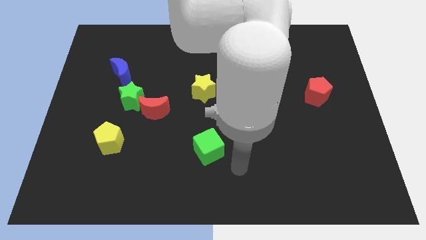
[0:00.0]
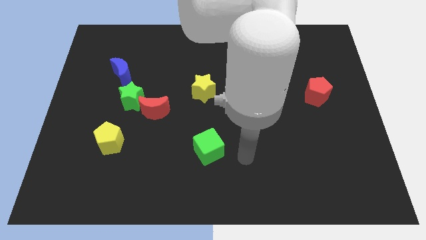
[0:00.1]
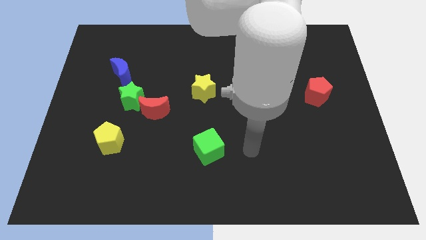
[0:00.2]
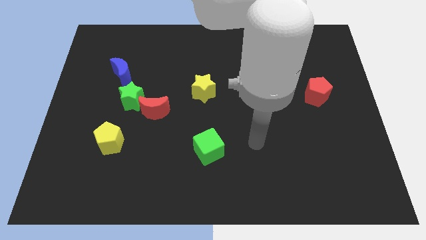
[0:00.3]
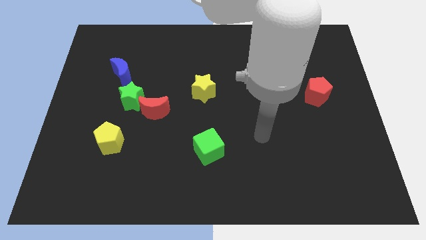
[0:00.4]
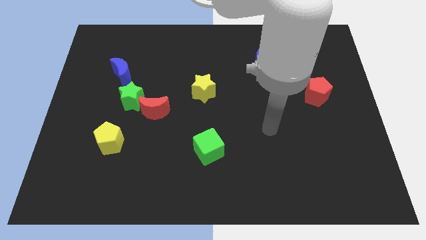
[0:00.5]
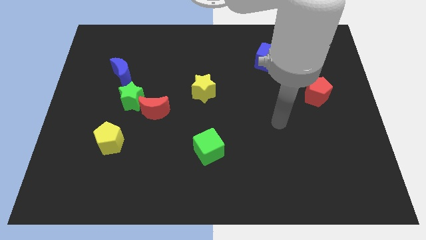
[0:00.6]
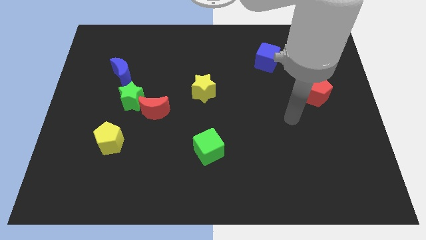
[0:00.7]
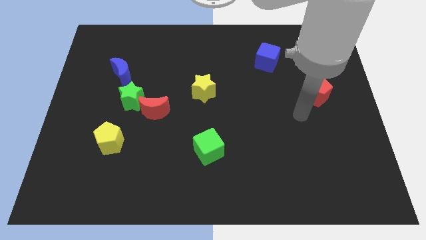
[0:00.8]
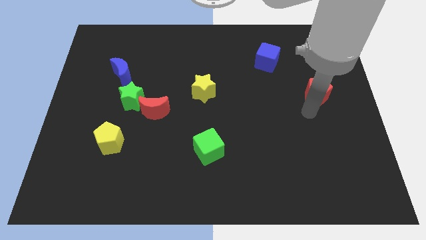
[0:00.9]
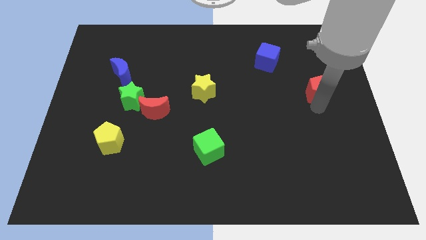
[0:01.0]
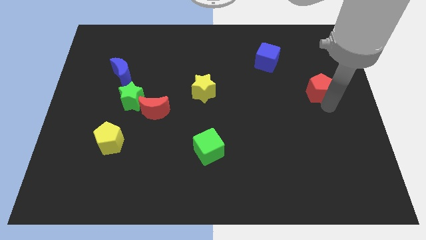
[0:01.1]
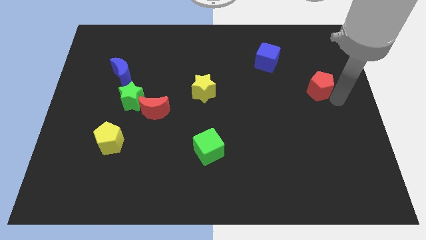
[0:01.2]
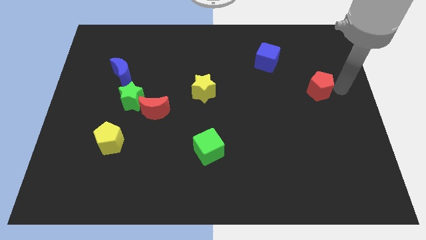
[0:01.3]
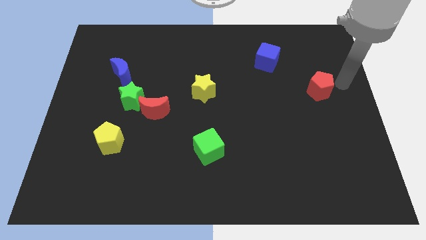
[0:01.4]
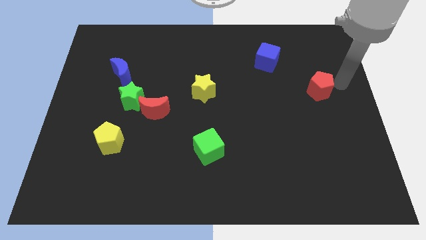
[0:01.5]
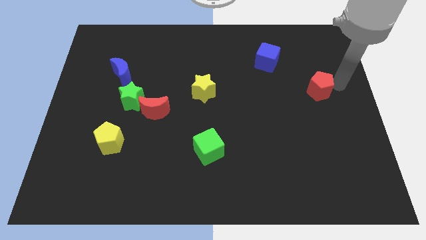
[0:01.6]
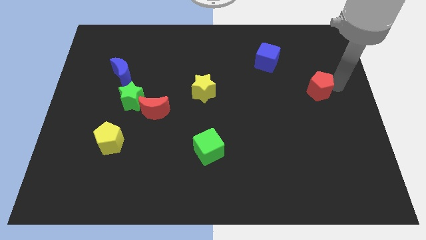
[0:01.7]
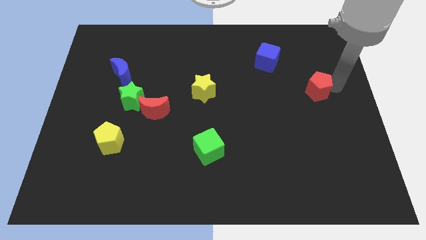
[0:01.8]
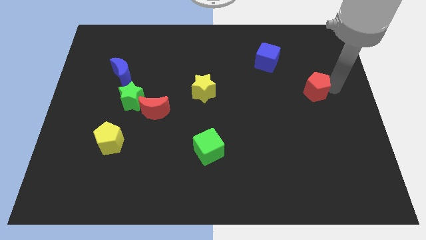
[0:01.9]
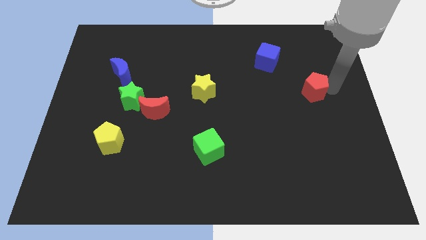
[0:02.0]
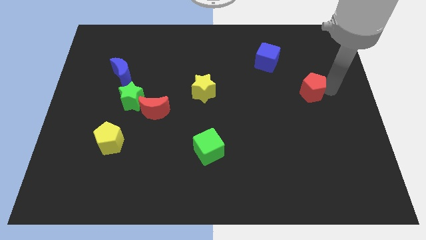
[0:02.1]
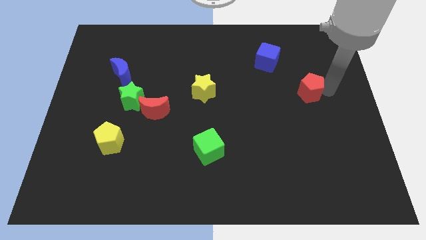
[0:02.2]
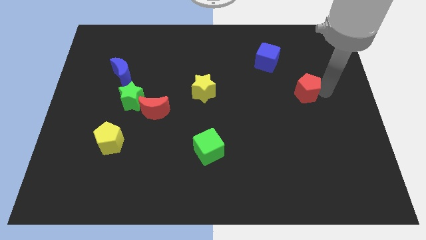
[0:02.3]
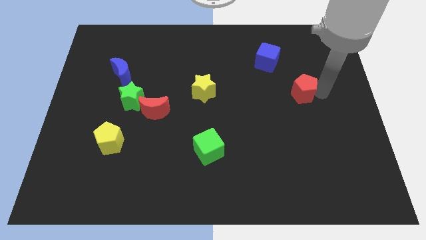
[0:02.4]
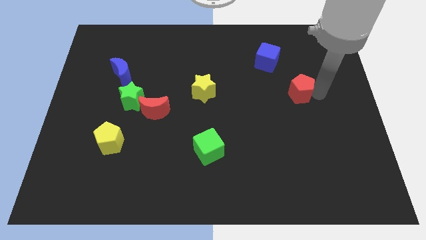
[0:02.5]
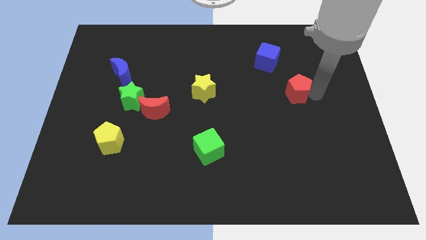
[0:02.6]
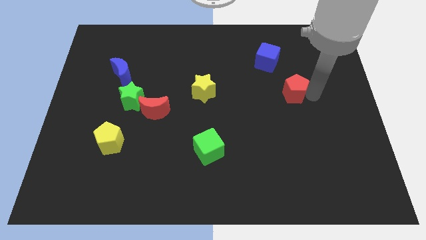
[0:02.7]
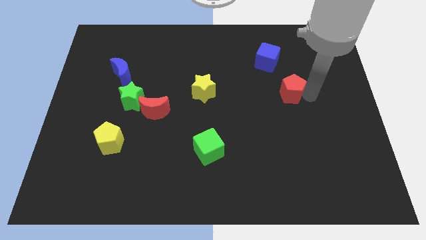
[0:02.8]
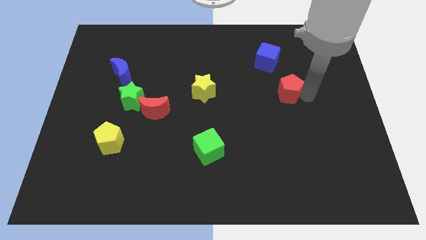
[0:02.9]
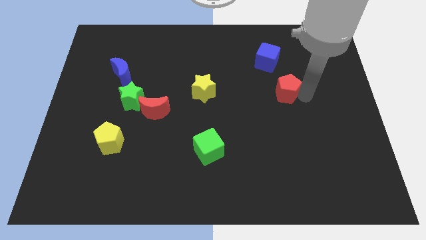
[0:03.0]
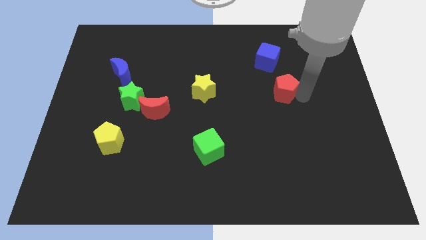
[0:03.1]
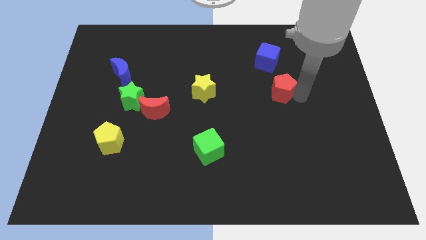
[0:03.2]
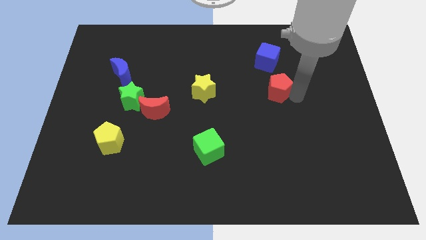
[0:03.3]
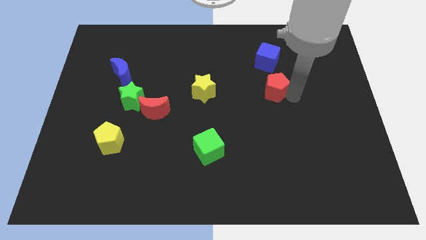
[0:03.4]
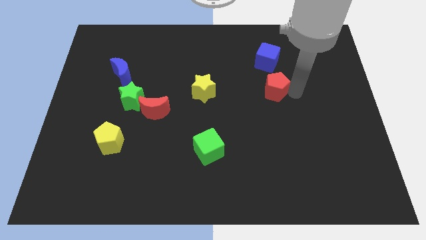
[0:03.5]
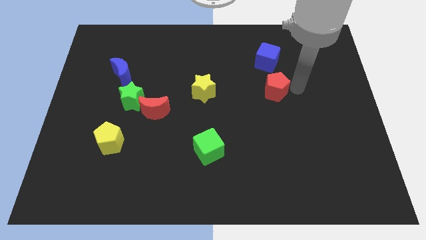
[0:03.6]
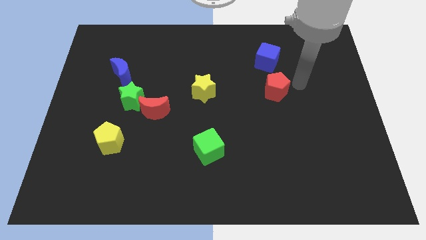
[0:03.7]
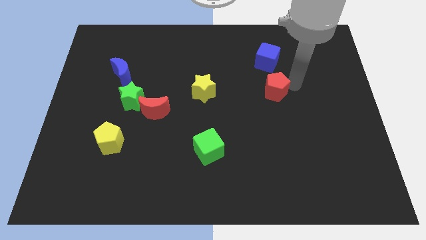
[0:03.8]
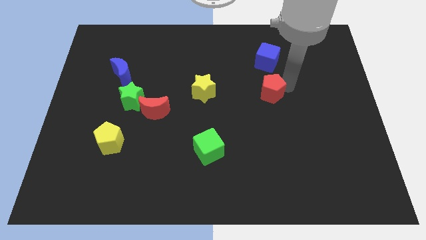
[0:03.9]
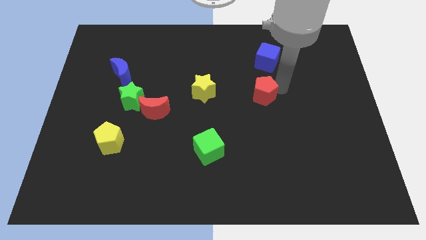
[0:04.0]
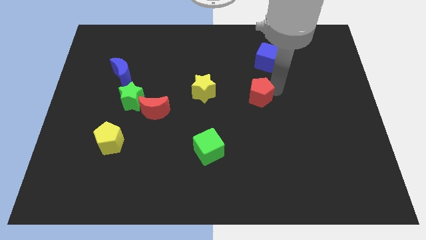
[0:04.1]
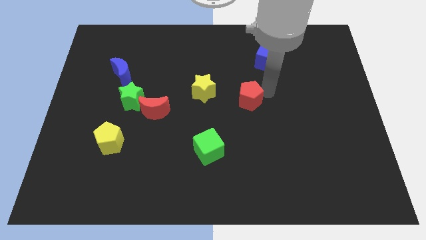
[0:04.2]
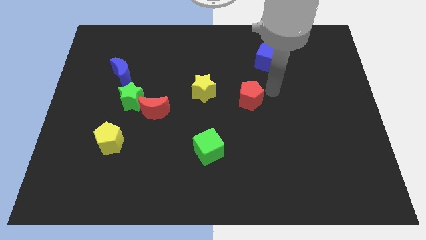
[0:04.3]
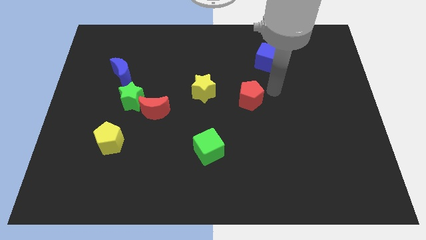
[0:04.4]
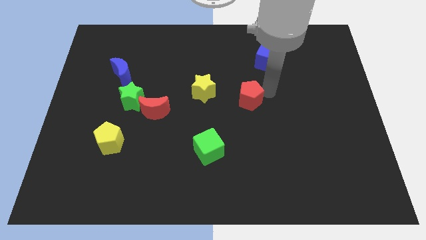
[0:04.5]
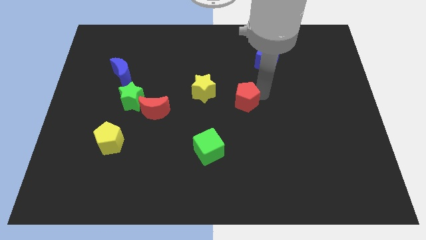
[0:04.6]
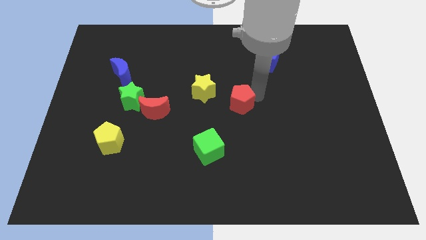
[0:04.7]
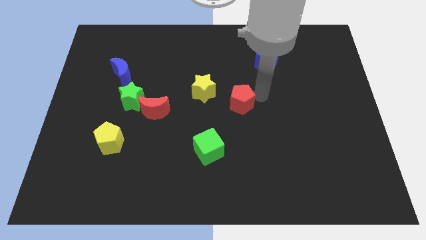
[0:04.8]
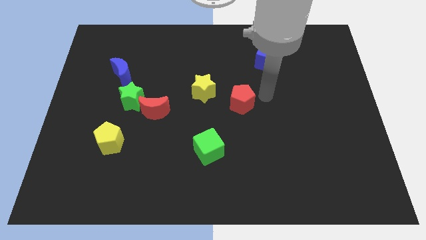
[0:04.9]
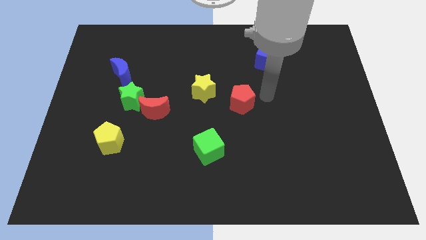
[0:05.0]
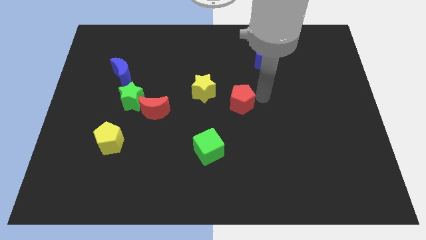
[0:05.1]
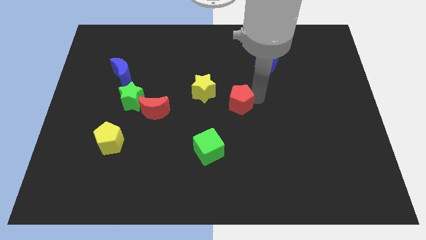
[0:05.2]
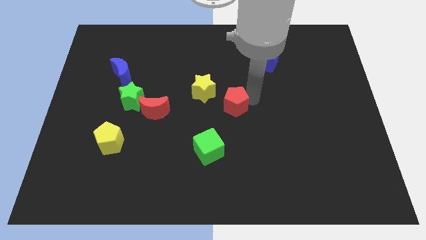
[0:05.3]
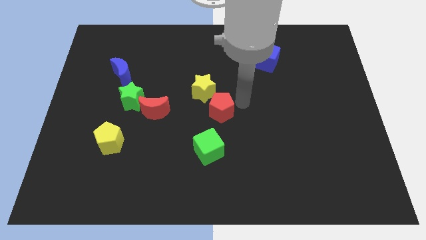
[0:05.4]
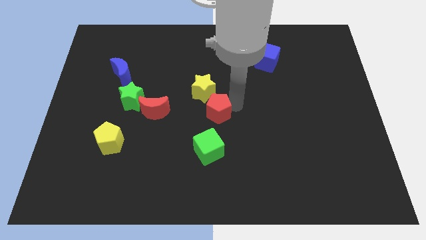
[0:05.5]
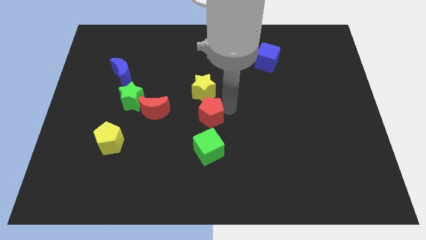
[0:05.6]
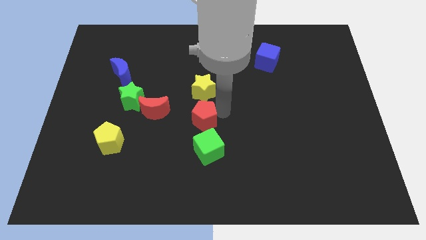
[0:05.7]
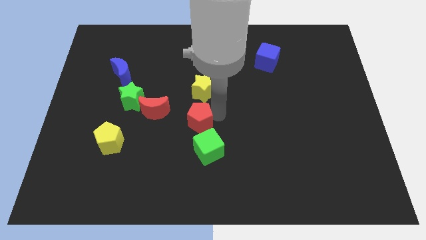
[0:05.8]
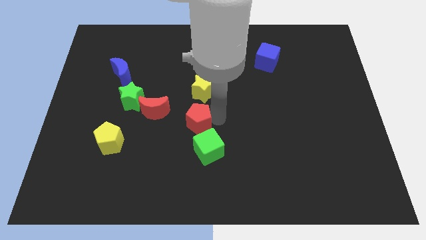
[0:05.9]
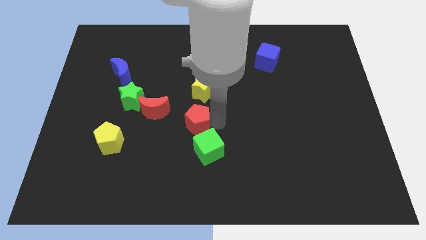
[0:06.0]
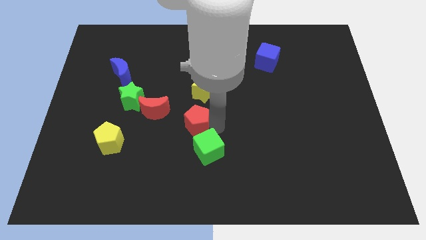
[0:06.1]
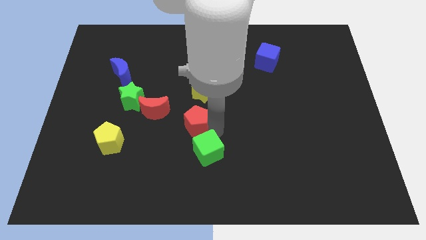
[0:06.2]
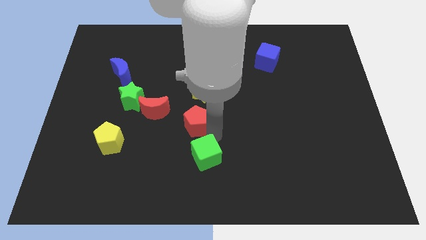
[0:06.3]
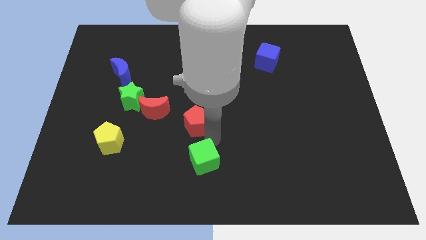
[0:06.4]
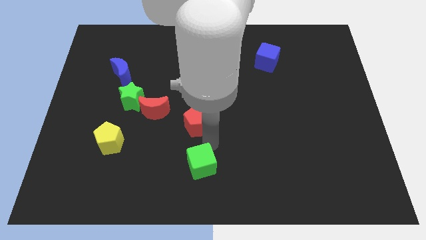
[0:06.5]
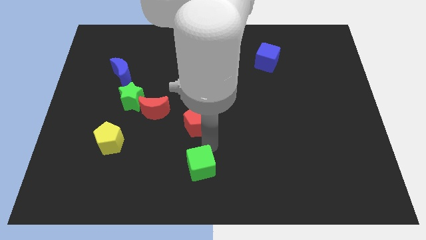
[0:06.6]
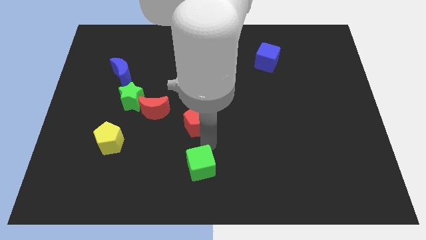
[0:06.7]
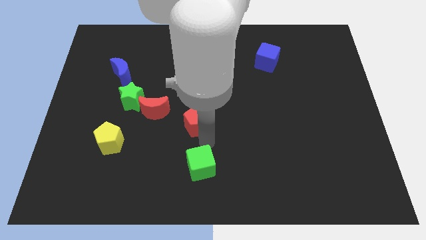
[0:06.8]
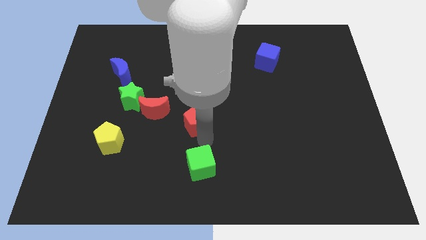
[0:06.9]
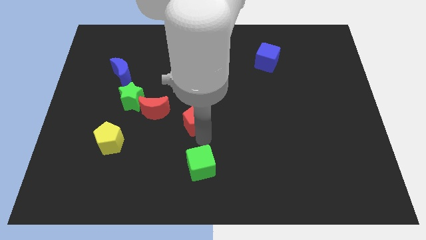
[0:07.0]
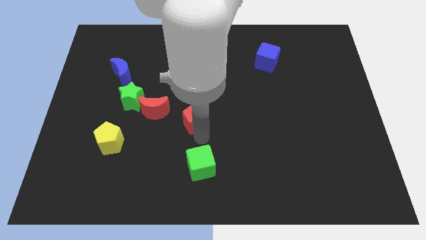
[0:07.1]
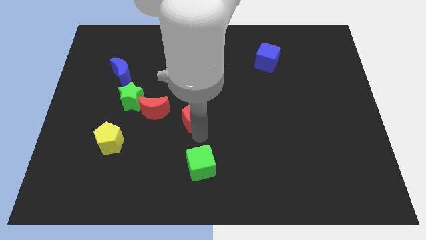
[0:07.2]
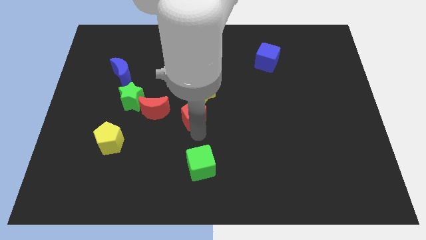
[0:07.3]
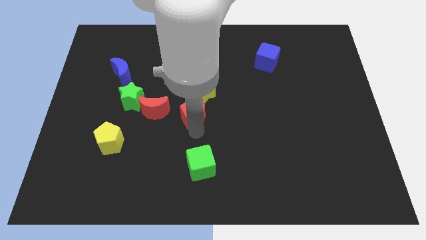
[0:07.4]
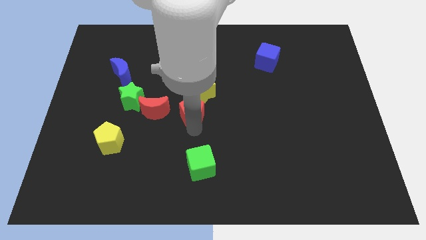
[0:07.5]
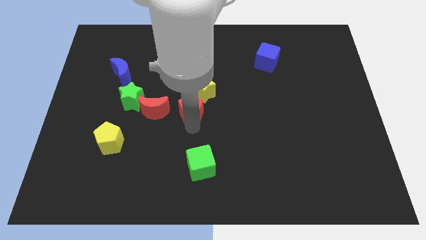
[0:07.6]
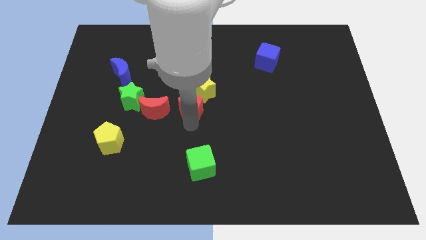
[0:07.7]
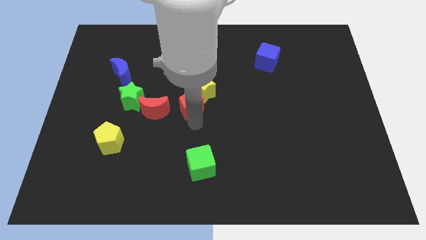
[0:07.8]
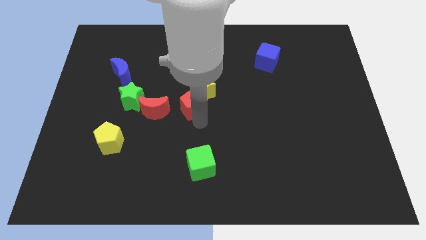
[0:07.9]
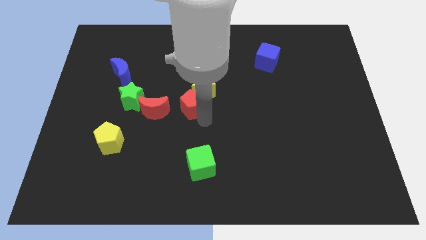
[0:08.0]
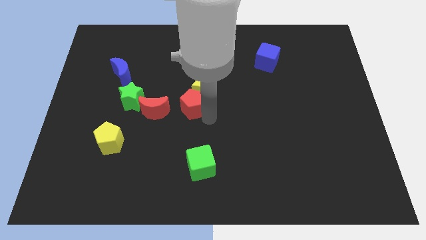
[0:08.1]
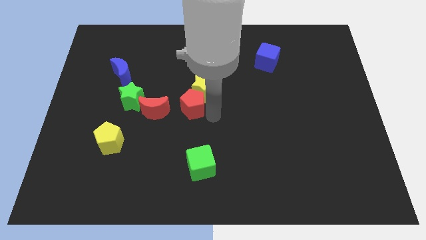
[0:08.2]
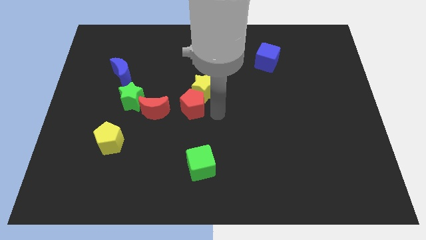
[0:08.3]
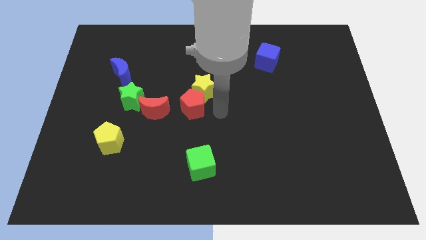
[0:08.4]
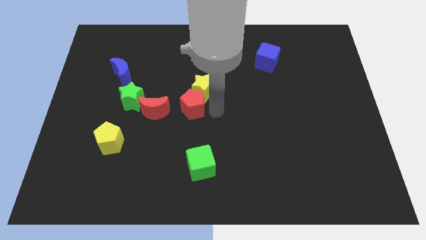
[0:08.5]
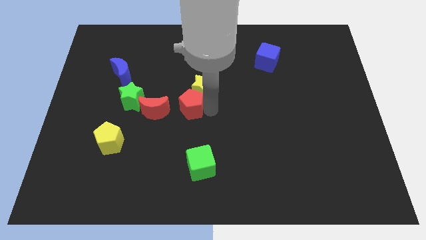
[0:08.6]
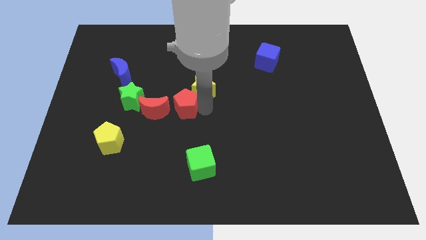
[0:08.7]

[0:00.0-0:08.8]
move the red pentagon left of the yellow star
